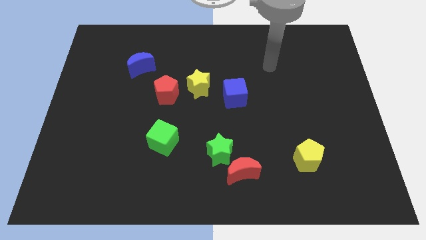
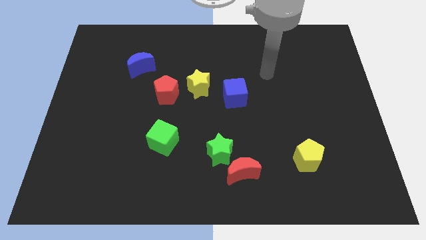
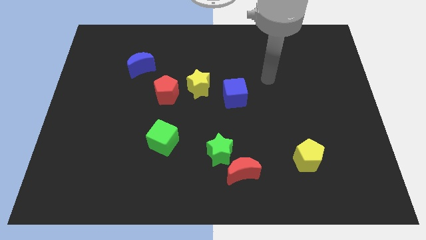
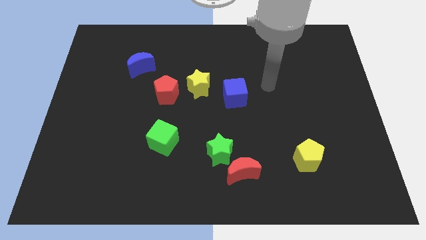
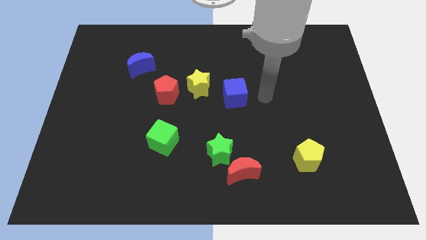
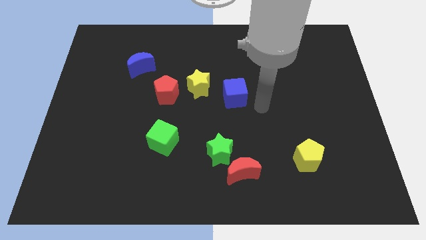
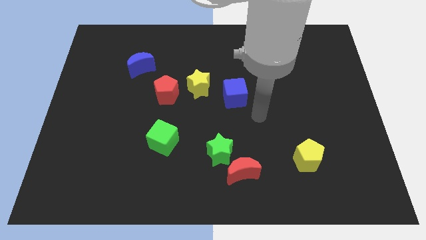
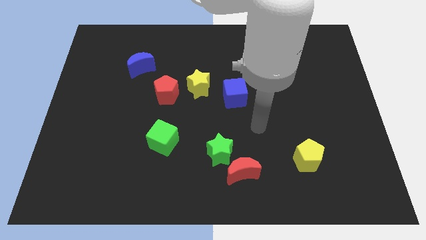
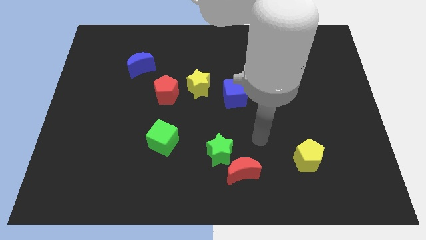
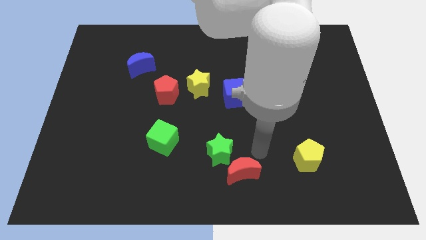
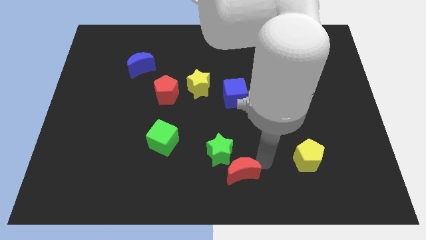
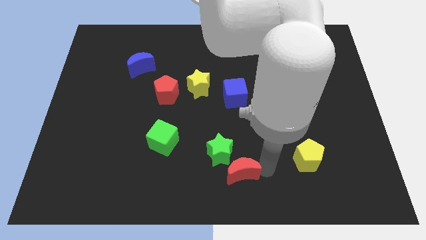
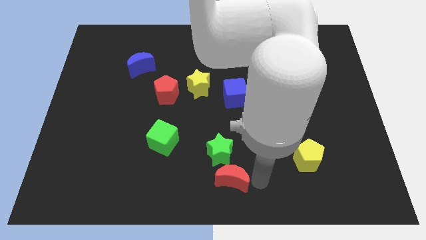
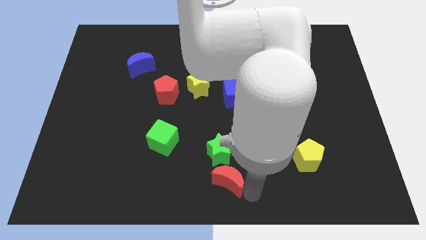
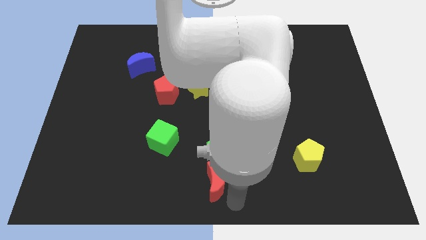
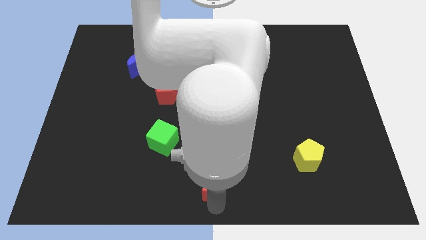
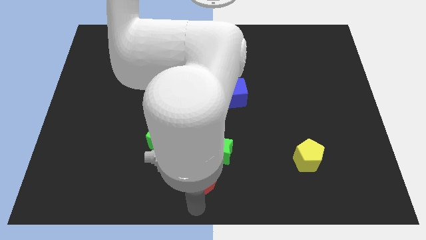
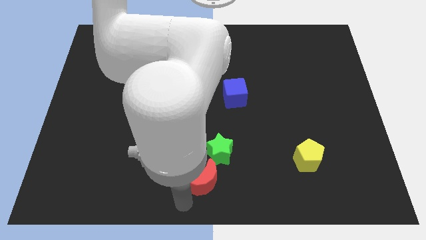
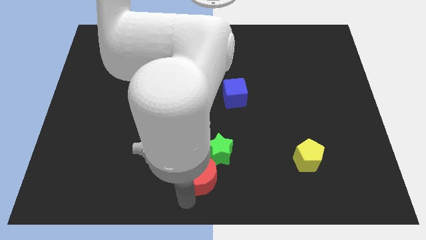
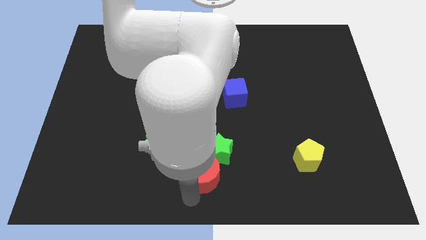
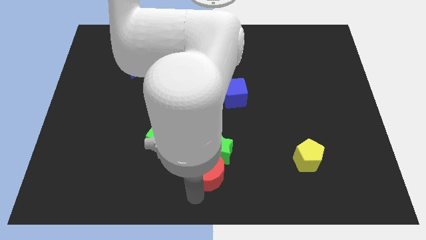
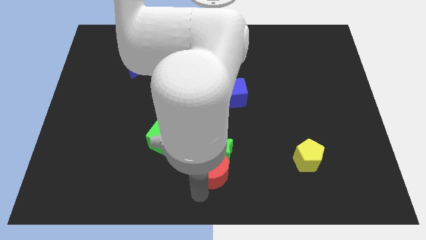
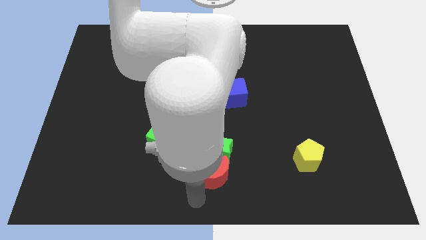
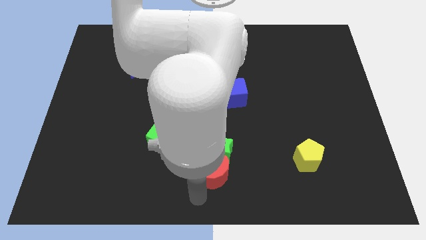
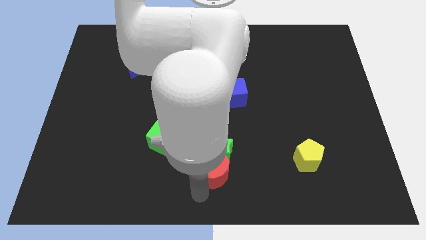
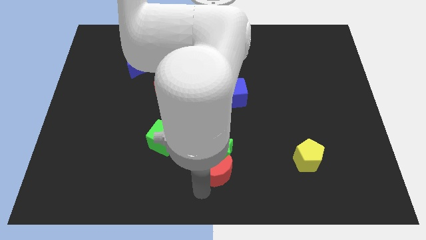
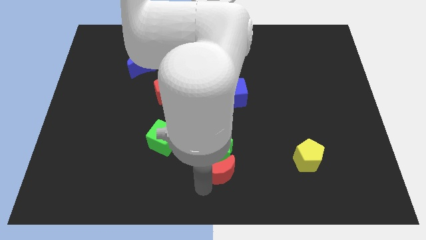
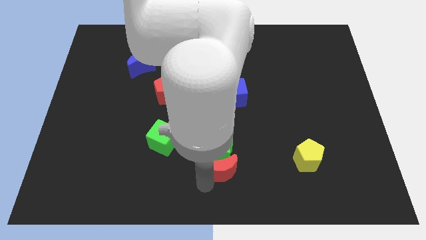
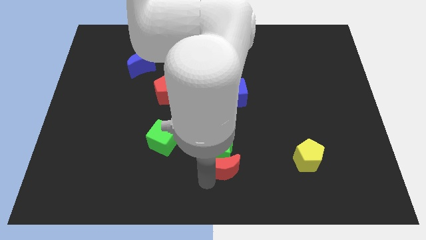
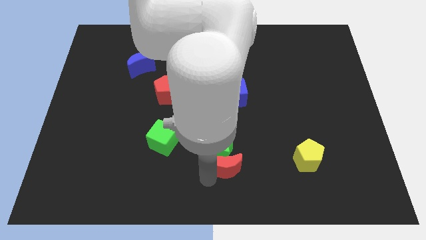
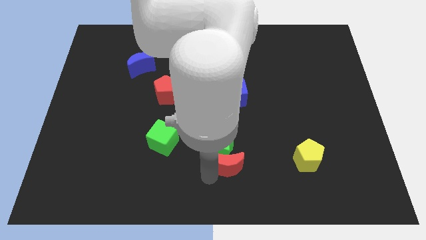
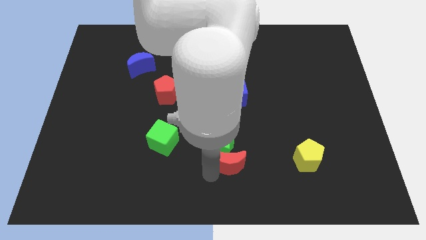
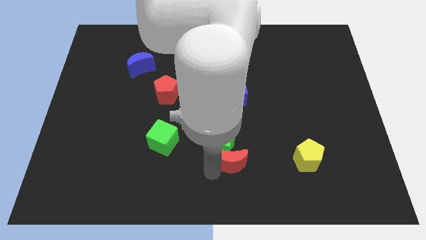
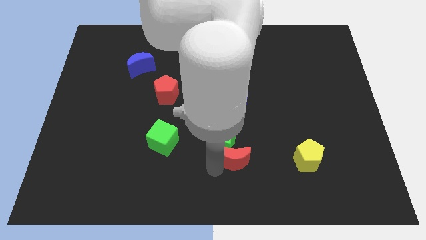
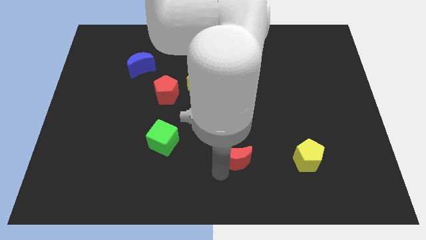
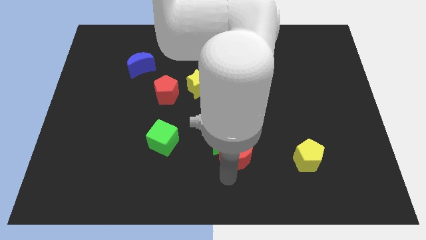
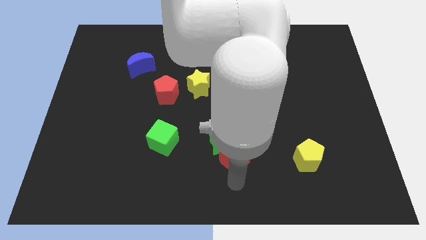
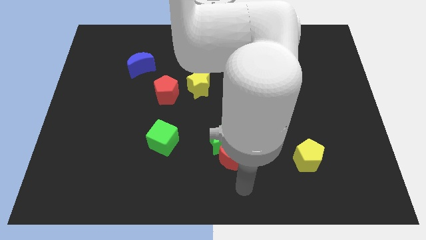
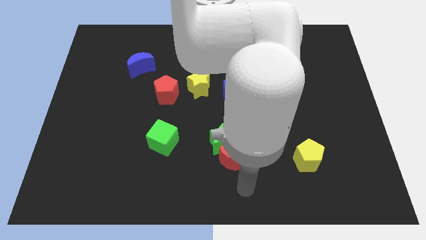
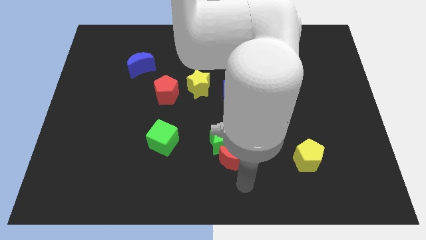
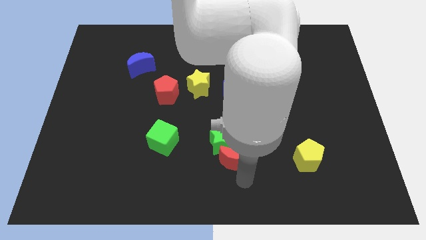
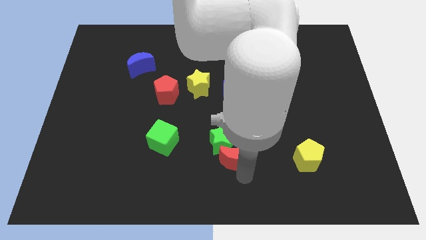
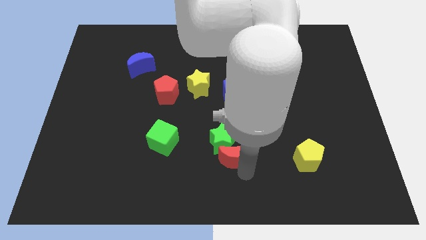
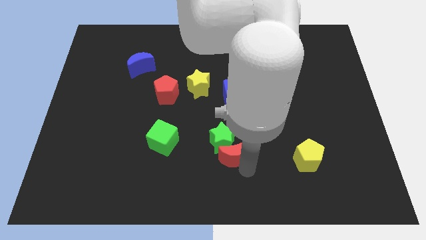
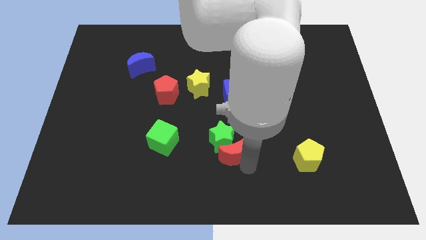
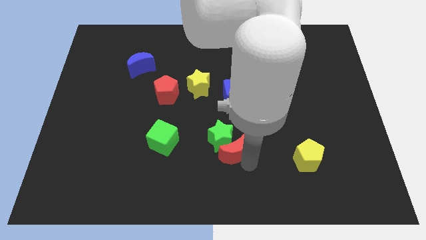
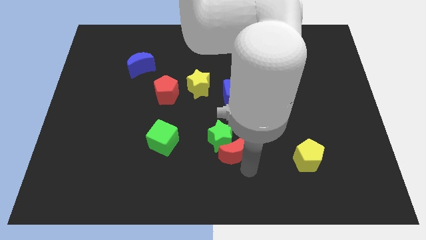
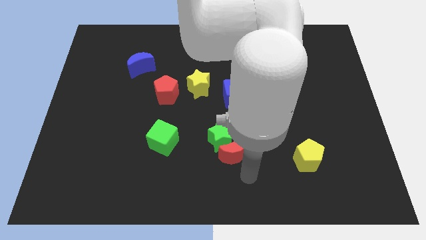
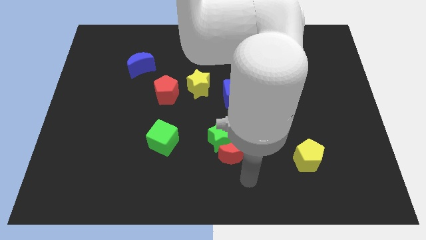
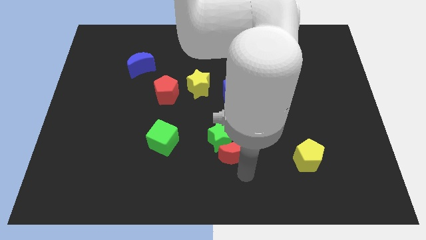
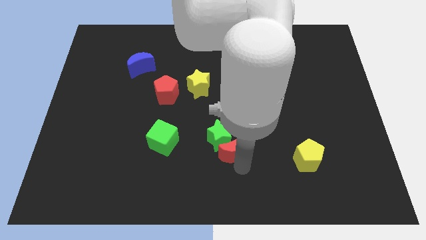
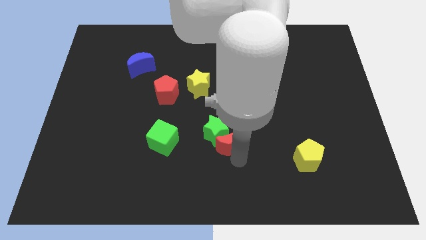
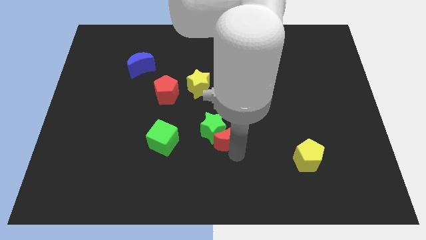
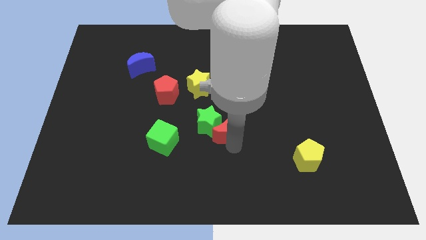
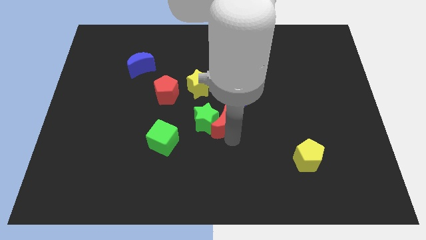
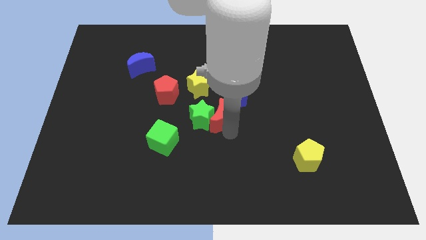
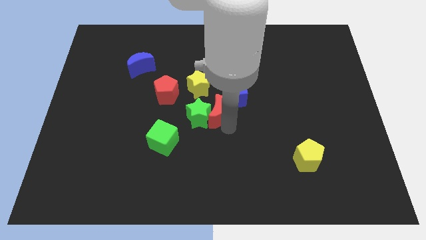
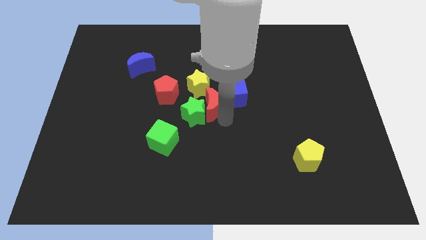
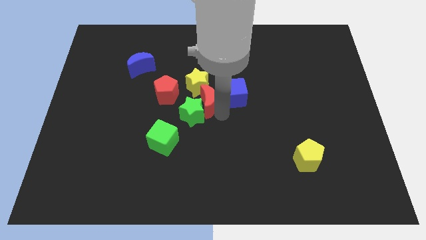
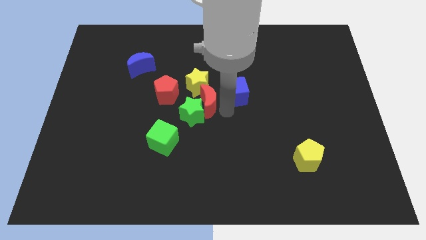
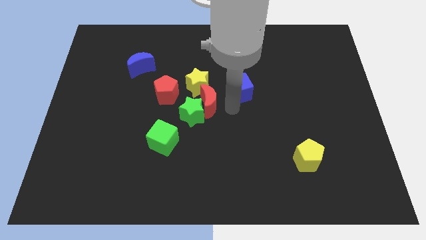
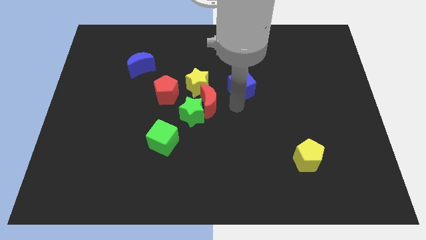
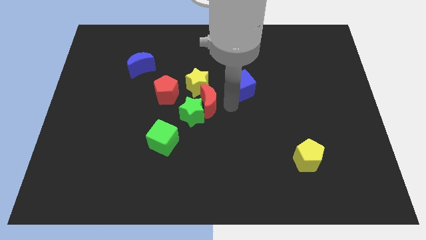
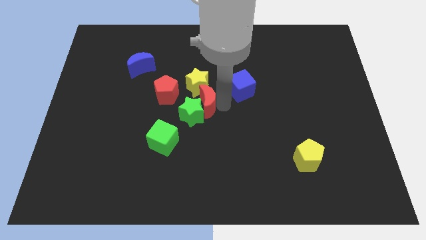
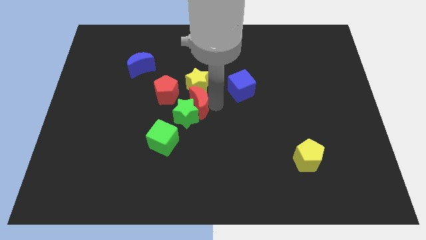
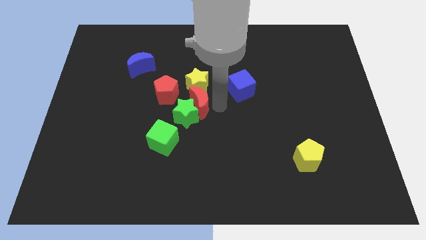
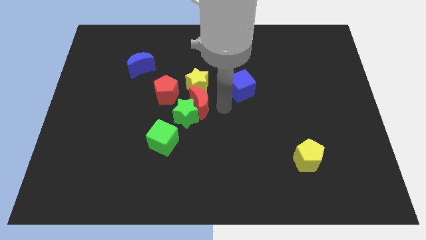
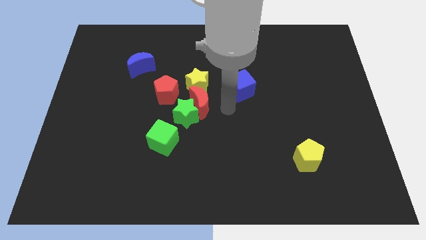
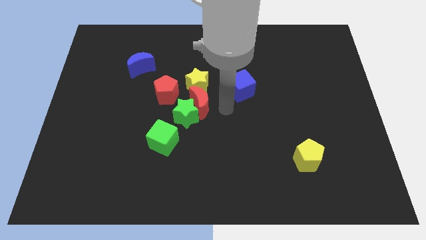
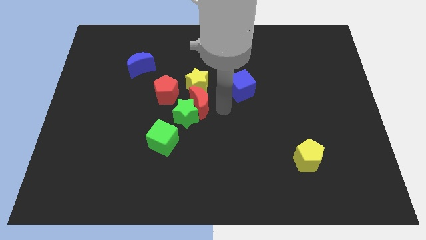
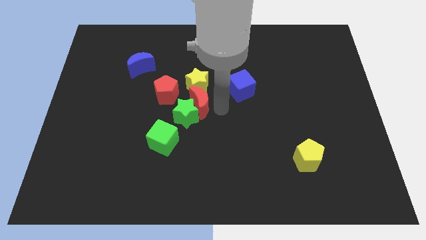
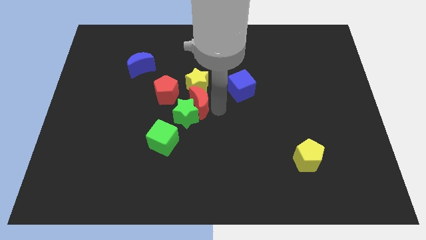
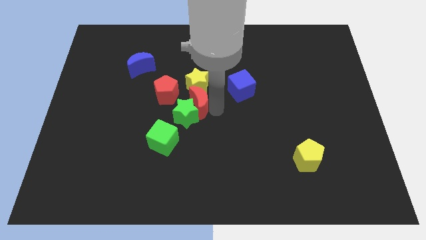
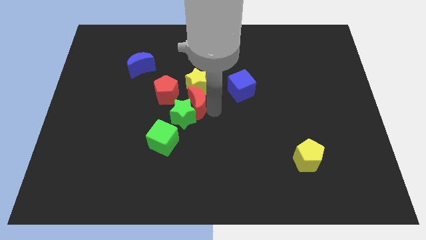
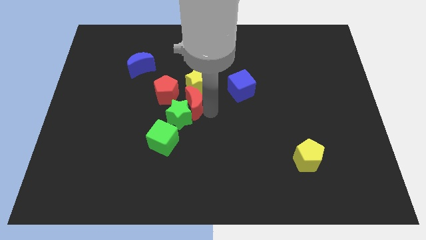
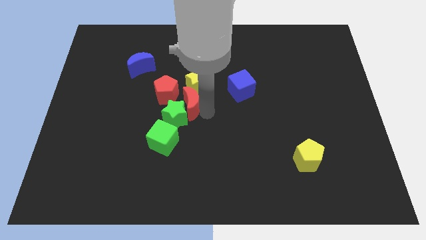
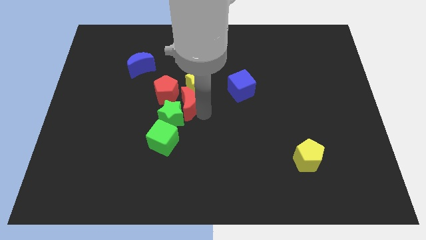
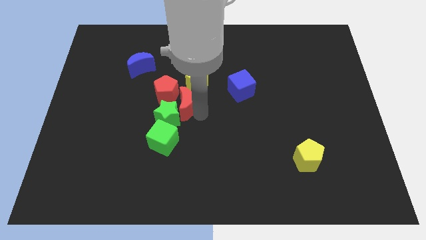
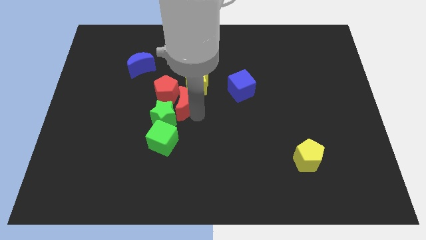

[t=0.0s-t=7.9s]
push the red moon towards the red pentagon
